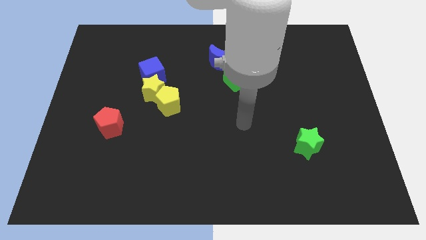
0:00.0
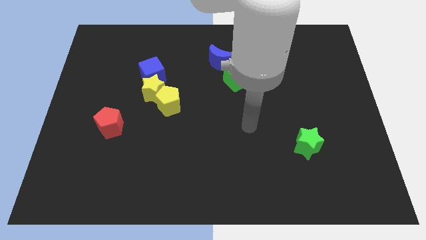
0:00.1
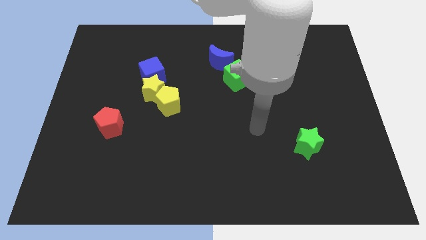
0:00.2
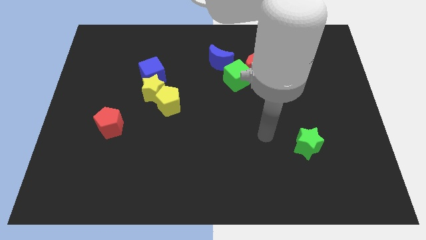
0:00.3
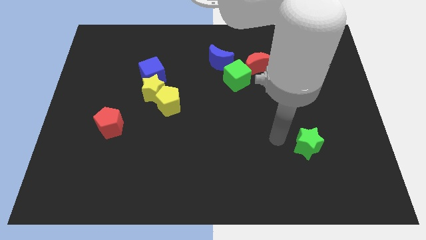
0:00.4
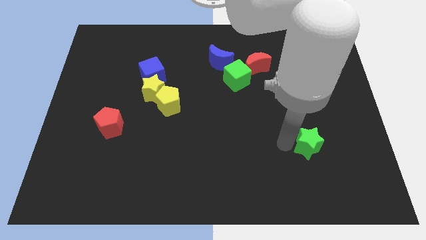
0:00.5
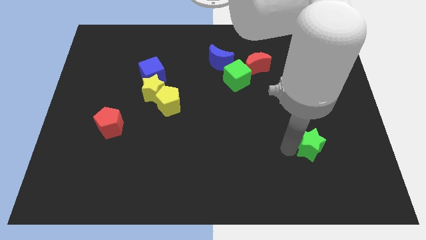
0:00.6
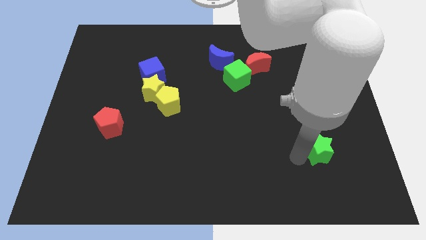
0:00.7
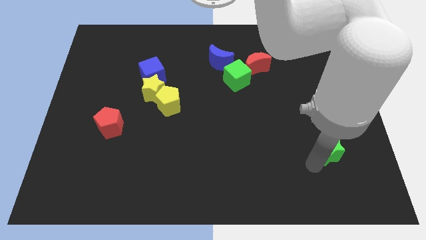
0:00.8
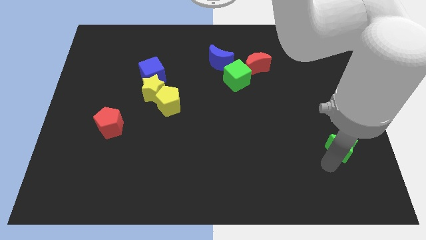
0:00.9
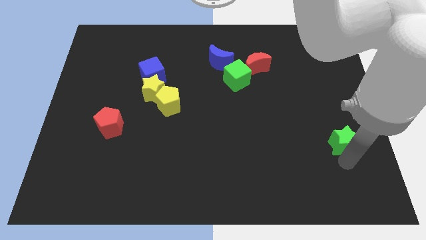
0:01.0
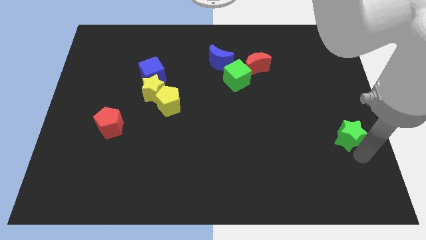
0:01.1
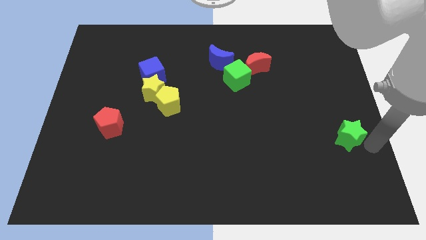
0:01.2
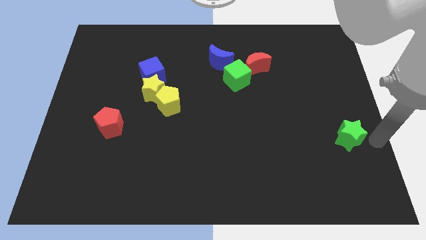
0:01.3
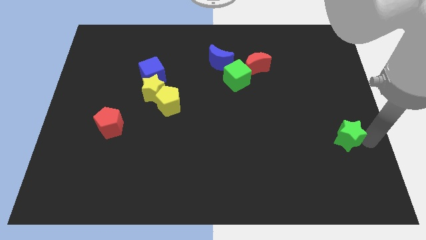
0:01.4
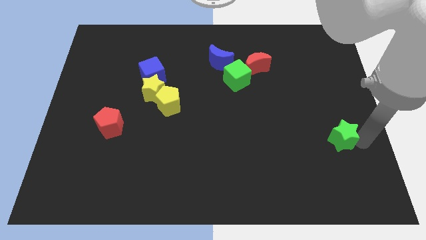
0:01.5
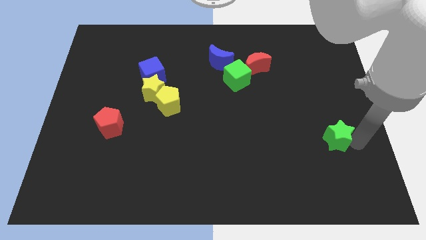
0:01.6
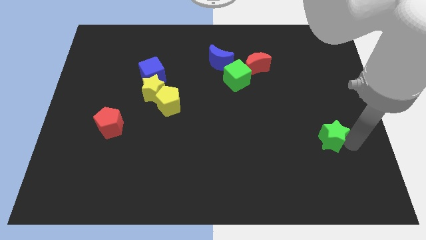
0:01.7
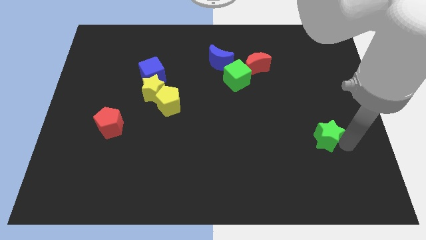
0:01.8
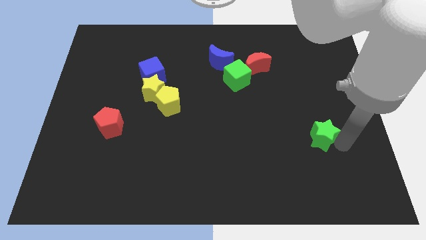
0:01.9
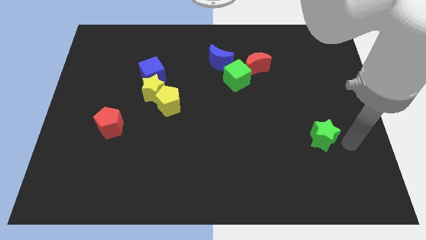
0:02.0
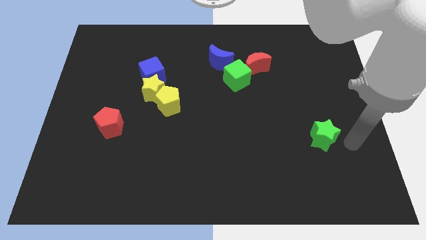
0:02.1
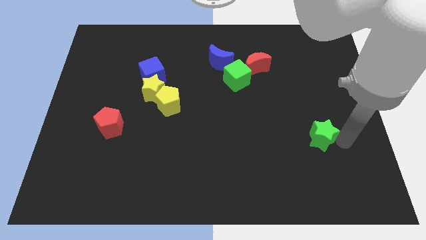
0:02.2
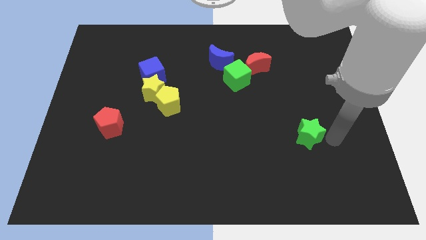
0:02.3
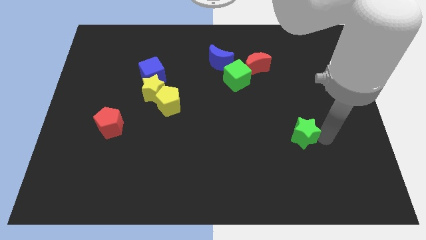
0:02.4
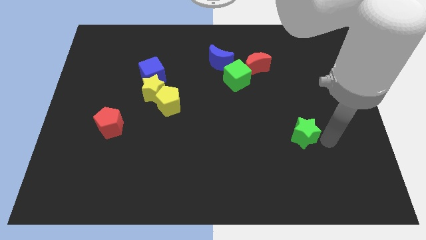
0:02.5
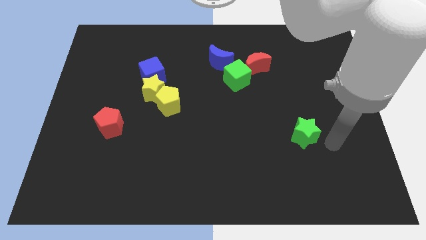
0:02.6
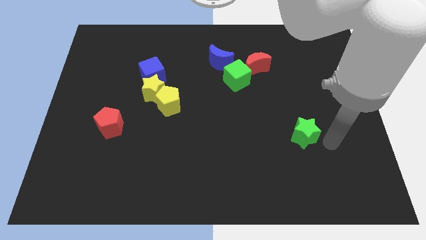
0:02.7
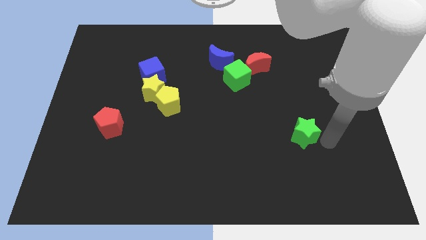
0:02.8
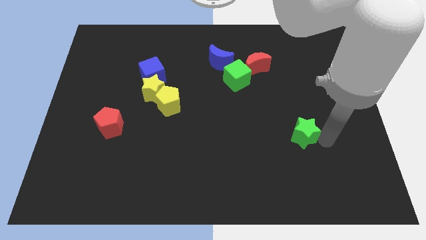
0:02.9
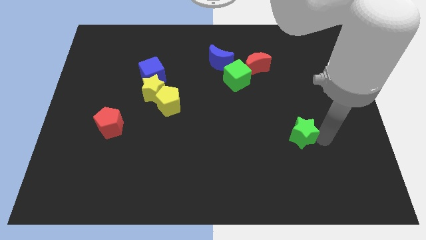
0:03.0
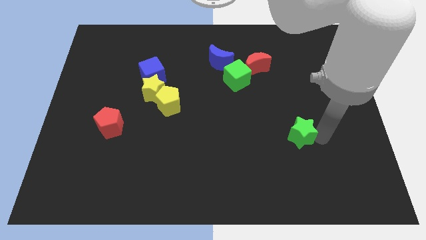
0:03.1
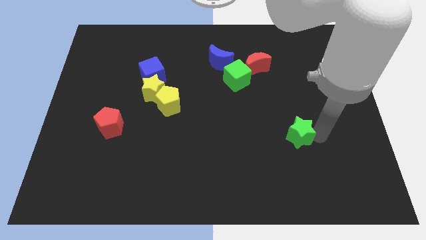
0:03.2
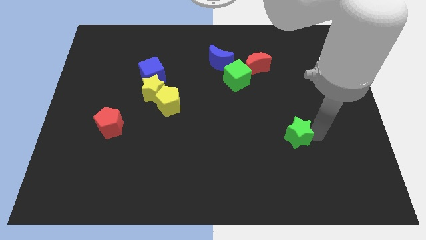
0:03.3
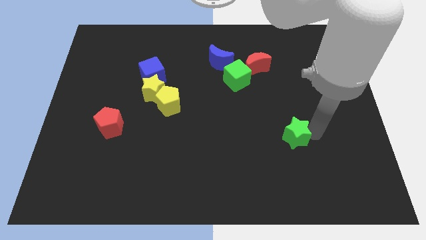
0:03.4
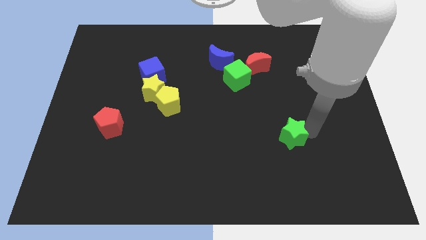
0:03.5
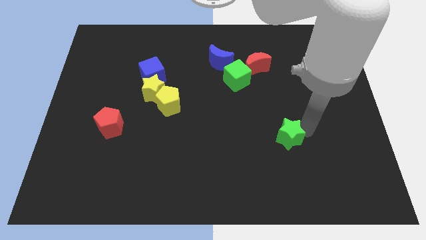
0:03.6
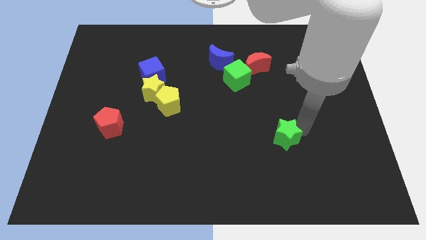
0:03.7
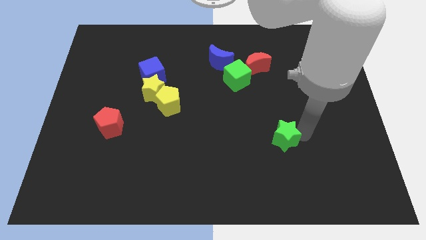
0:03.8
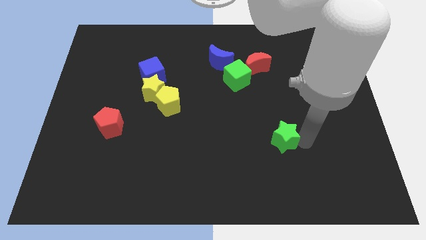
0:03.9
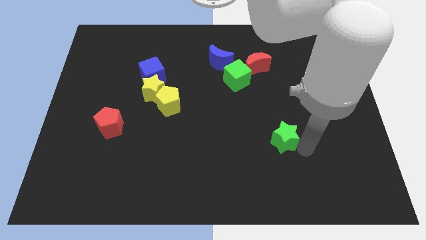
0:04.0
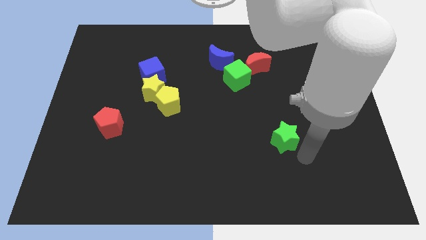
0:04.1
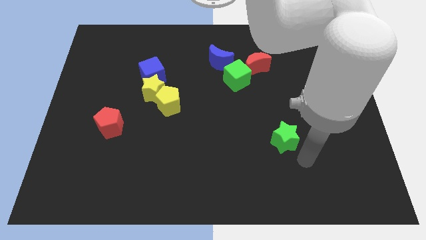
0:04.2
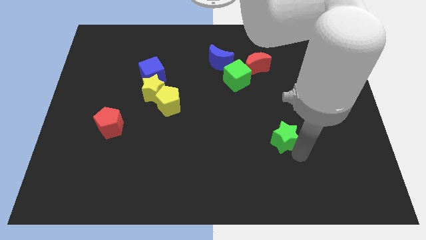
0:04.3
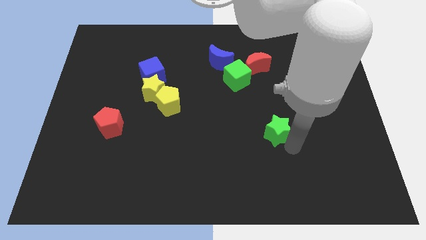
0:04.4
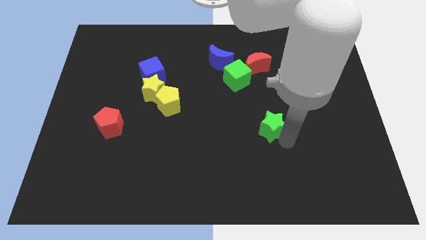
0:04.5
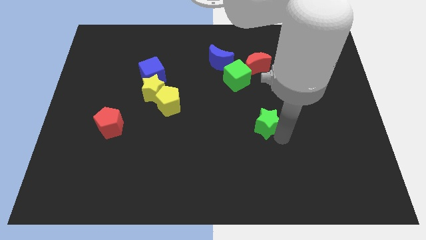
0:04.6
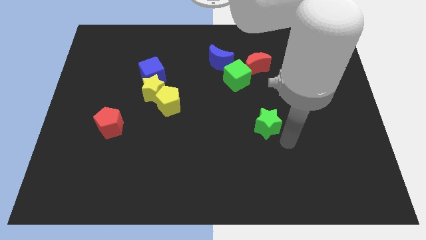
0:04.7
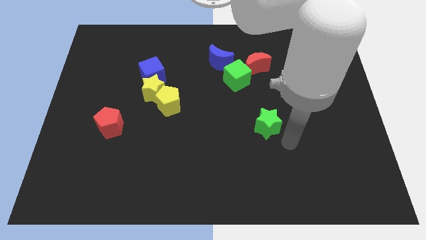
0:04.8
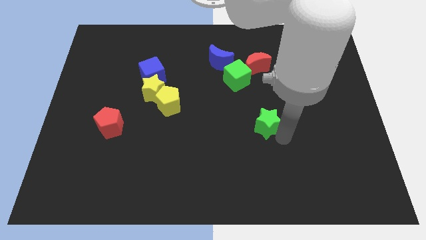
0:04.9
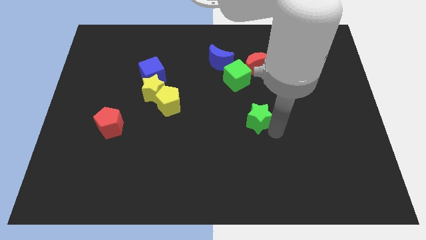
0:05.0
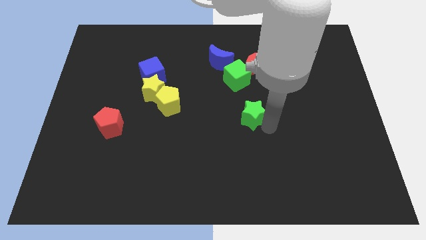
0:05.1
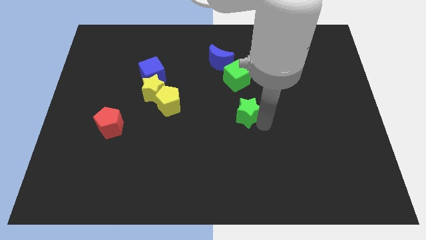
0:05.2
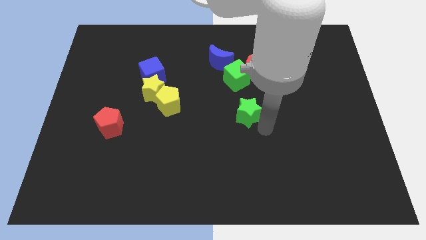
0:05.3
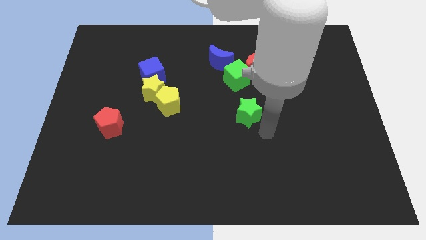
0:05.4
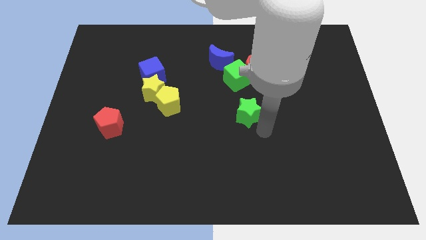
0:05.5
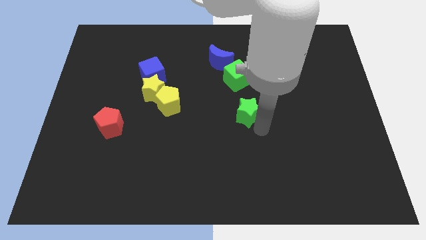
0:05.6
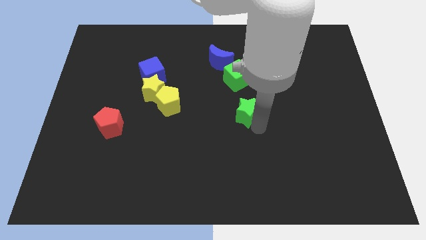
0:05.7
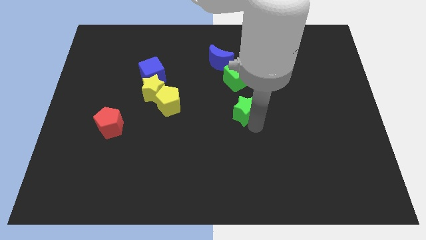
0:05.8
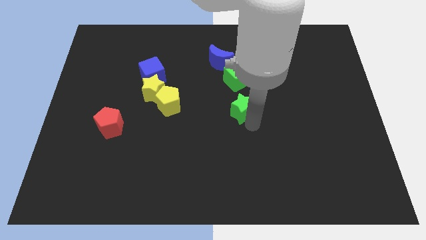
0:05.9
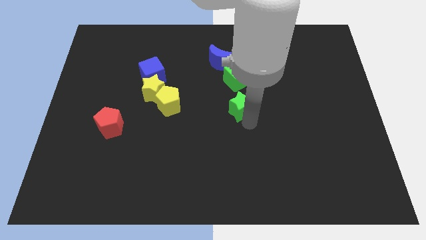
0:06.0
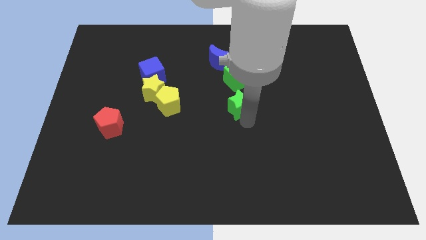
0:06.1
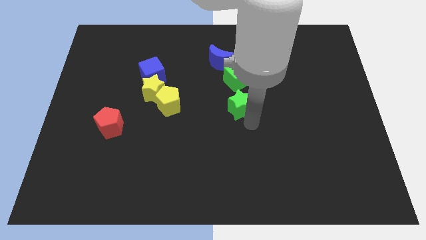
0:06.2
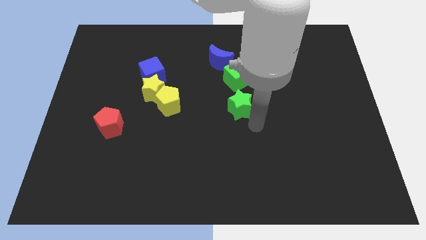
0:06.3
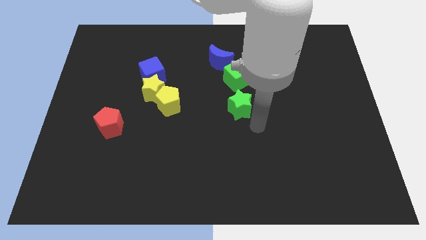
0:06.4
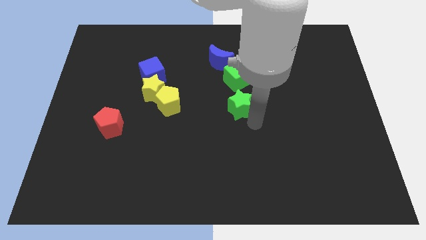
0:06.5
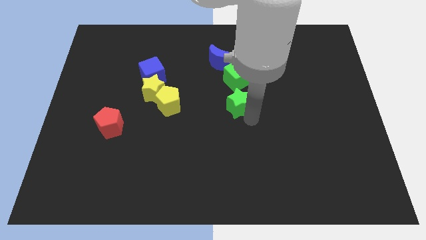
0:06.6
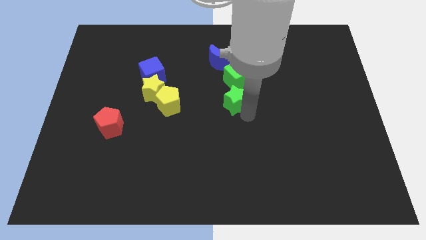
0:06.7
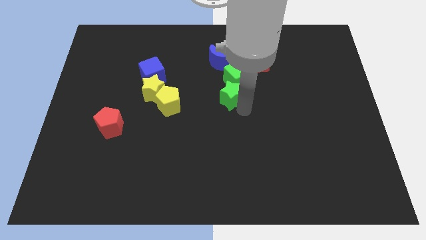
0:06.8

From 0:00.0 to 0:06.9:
push the green star diagonally upwards and left

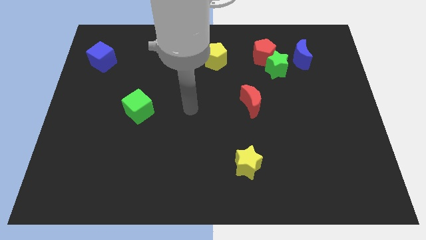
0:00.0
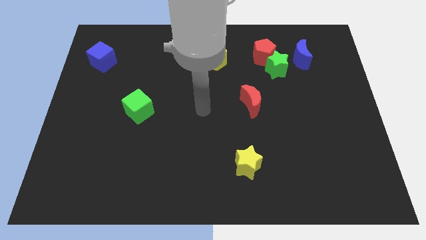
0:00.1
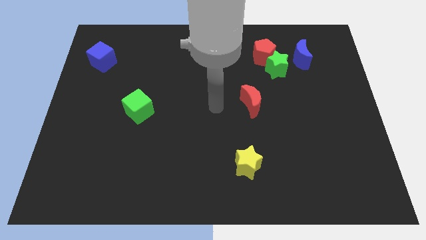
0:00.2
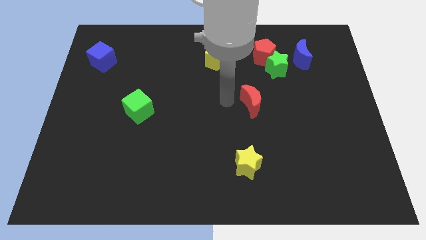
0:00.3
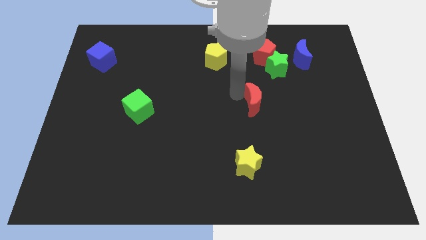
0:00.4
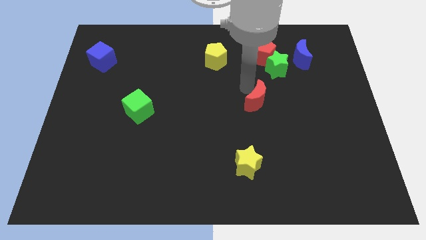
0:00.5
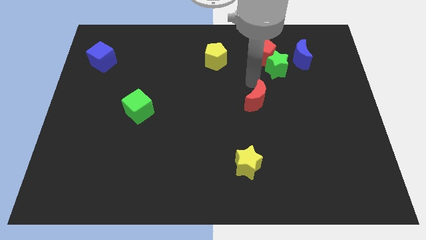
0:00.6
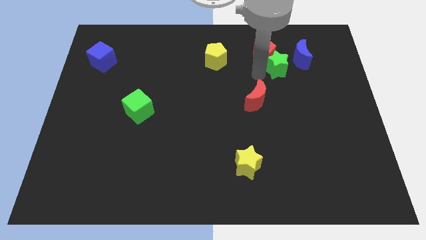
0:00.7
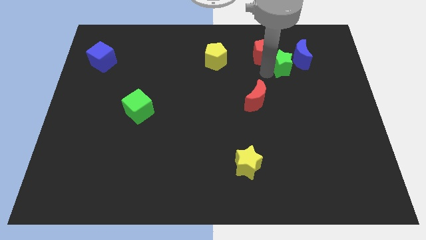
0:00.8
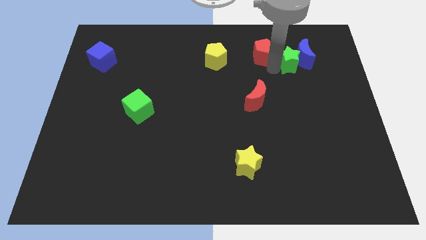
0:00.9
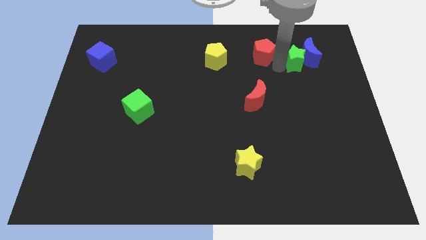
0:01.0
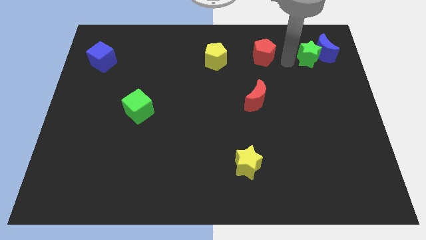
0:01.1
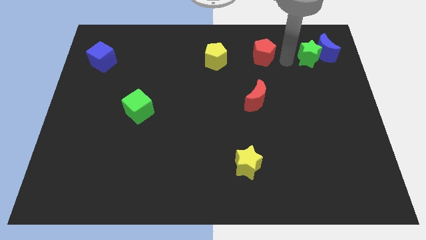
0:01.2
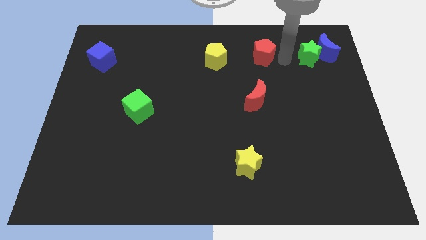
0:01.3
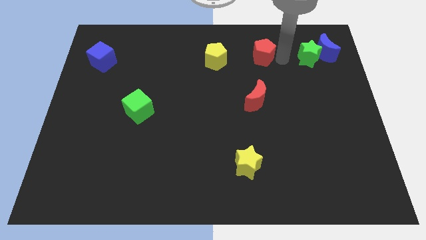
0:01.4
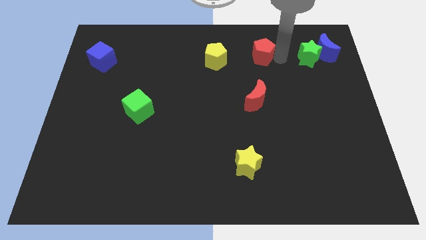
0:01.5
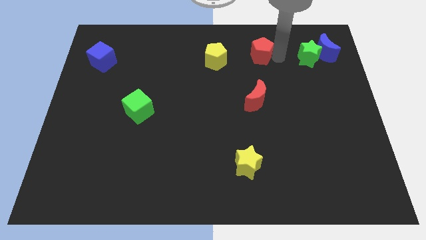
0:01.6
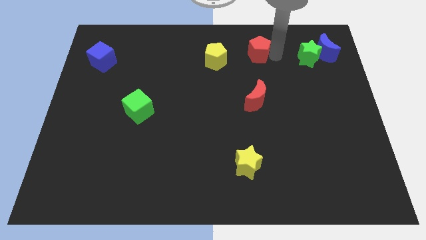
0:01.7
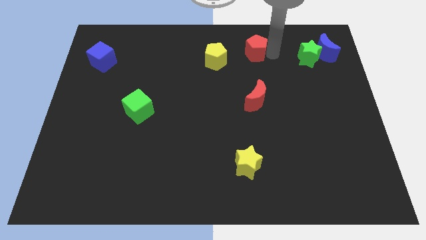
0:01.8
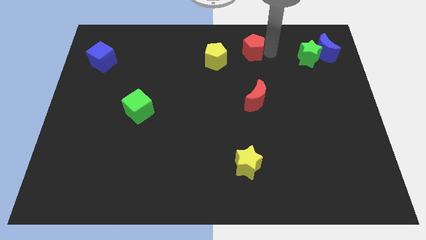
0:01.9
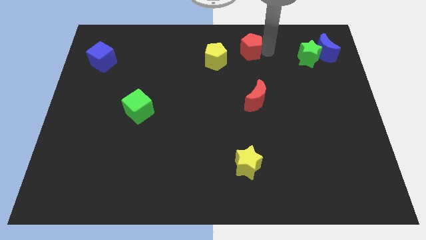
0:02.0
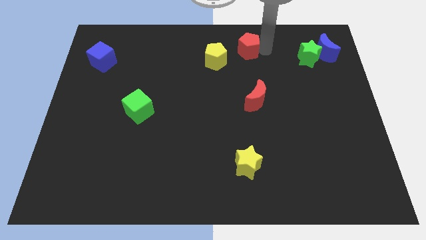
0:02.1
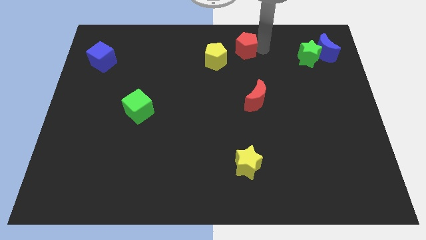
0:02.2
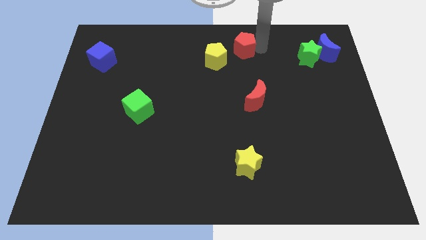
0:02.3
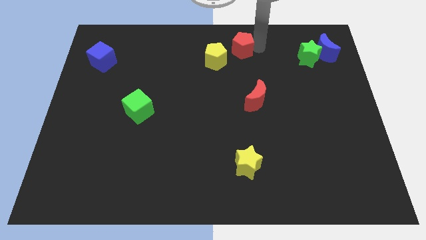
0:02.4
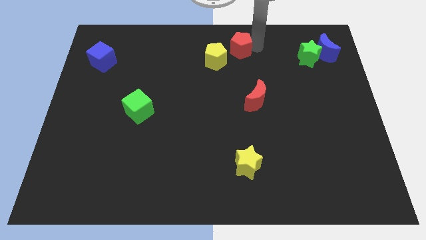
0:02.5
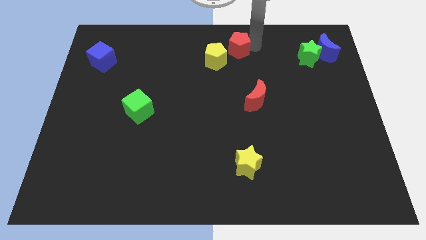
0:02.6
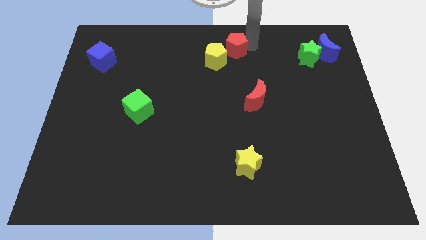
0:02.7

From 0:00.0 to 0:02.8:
push the red pentagon left a little bit
